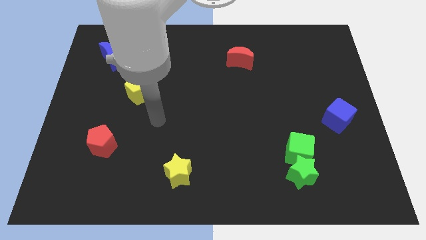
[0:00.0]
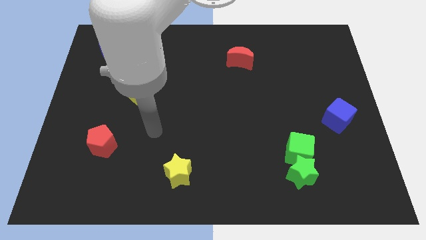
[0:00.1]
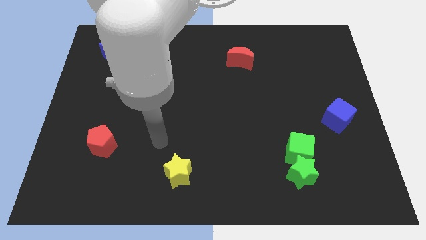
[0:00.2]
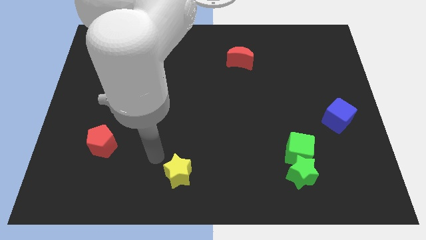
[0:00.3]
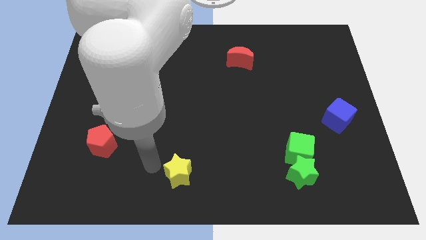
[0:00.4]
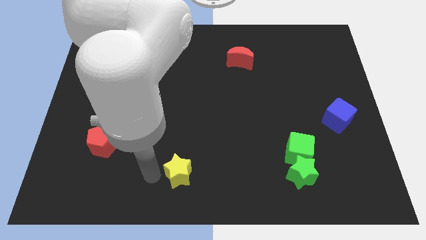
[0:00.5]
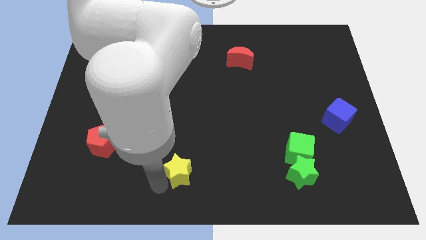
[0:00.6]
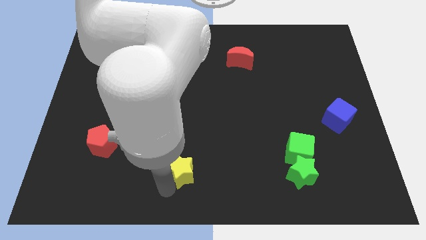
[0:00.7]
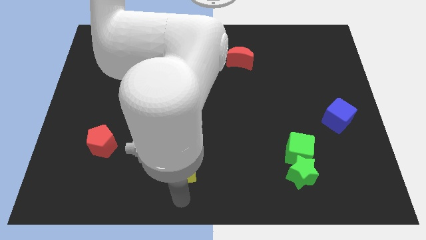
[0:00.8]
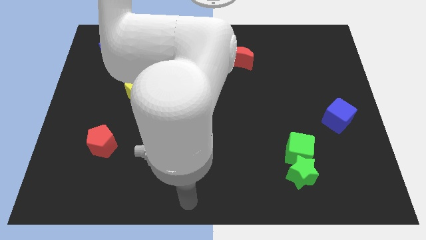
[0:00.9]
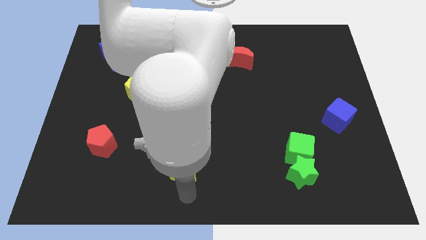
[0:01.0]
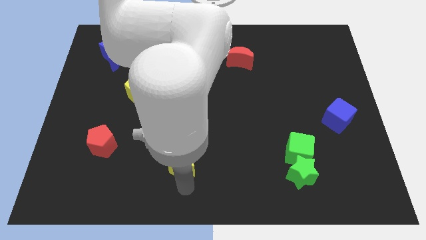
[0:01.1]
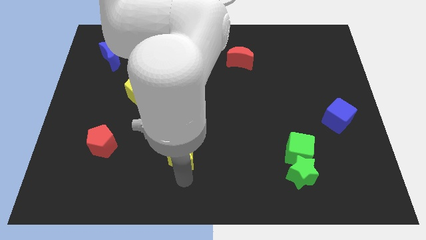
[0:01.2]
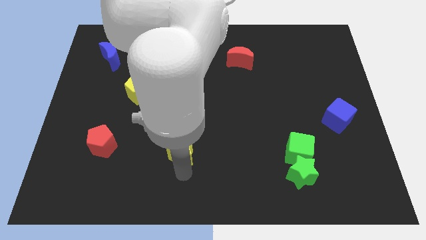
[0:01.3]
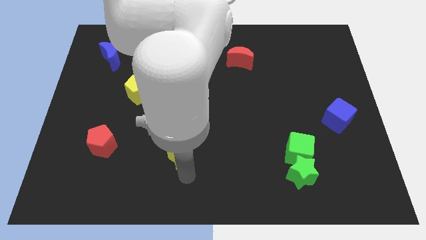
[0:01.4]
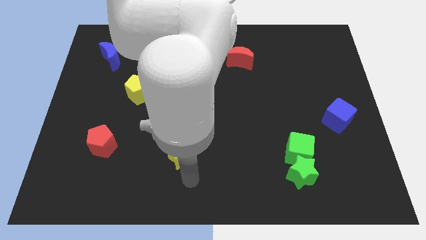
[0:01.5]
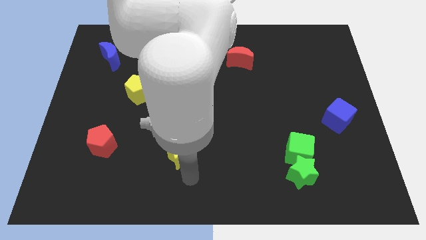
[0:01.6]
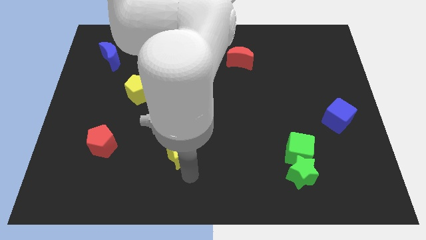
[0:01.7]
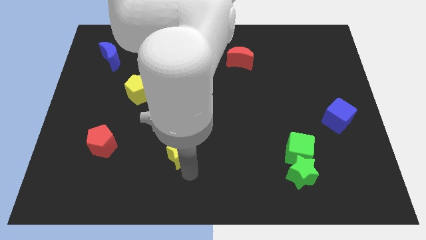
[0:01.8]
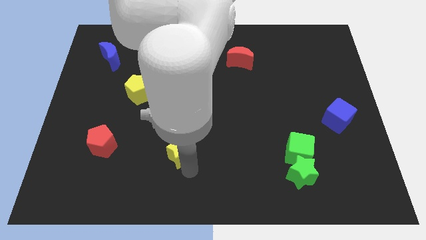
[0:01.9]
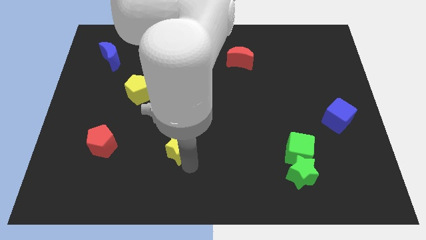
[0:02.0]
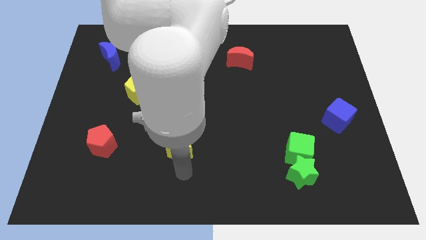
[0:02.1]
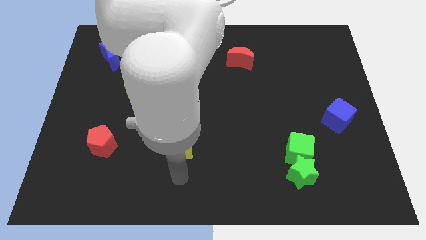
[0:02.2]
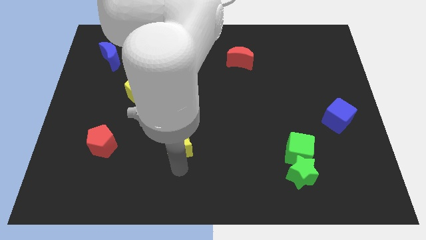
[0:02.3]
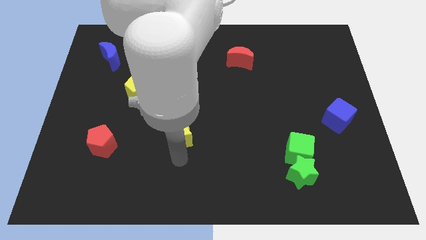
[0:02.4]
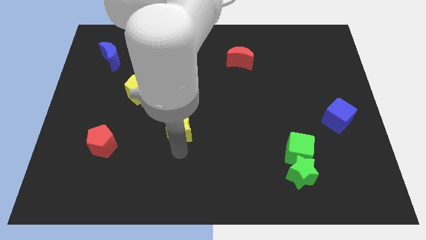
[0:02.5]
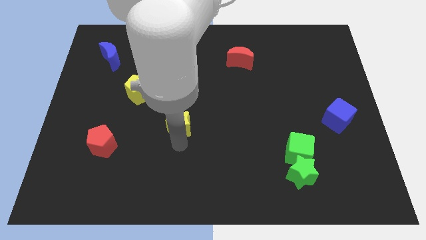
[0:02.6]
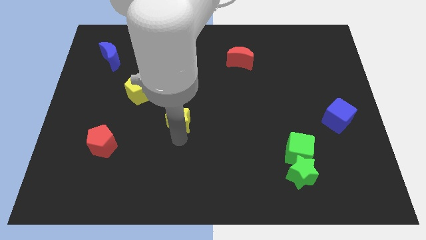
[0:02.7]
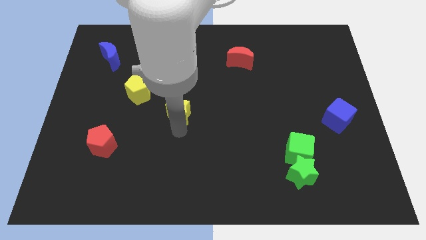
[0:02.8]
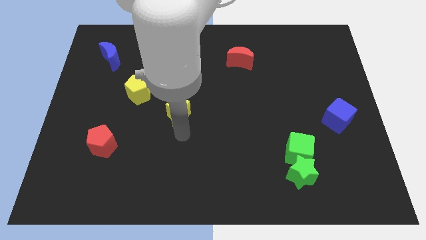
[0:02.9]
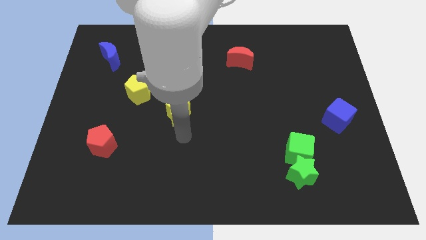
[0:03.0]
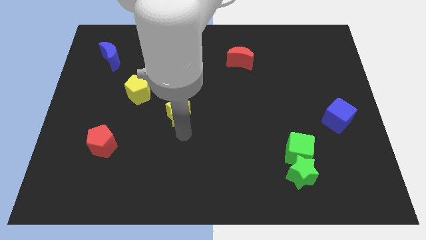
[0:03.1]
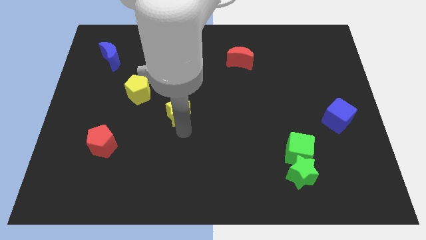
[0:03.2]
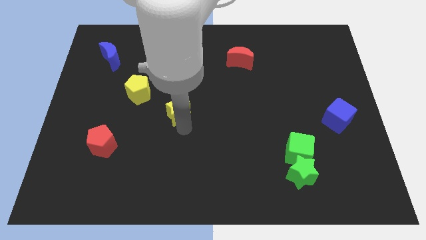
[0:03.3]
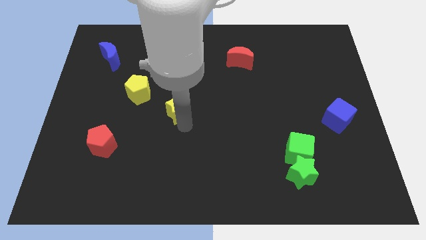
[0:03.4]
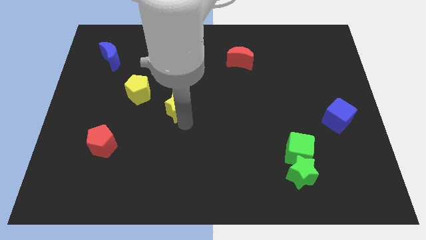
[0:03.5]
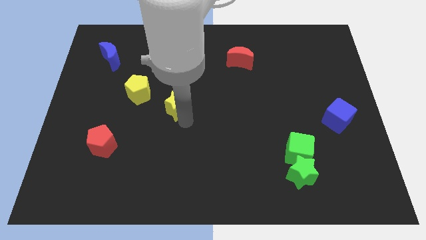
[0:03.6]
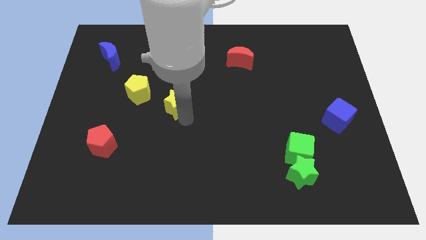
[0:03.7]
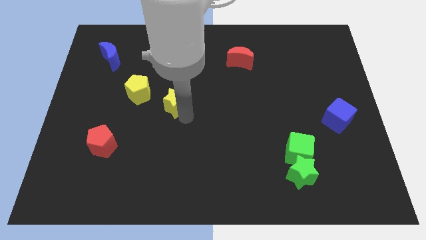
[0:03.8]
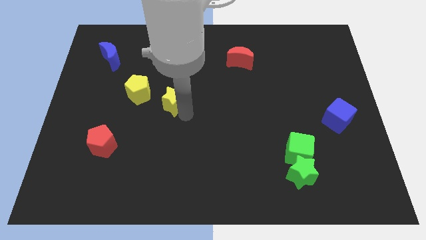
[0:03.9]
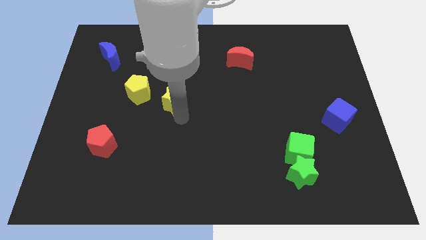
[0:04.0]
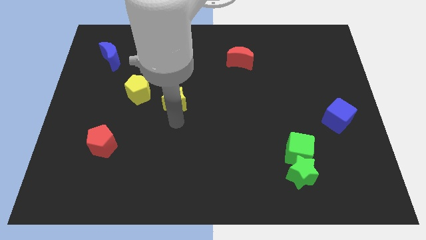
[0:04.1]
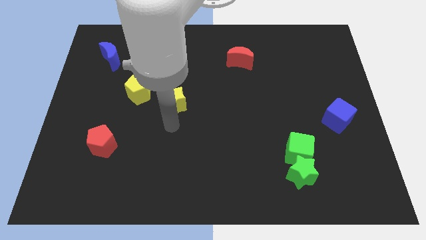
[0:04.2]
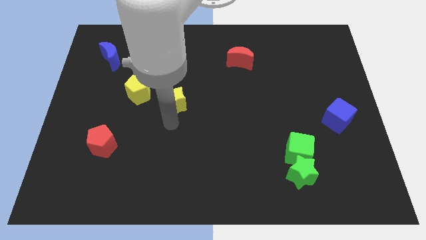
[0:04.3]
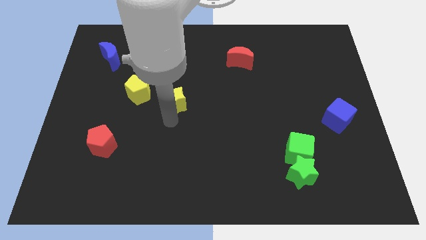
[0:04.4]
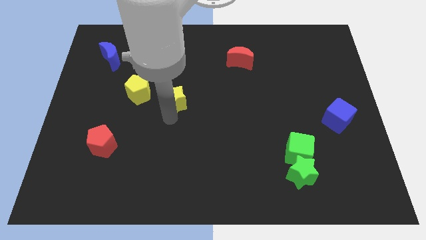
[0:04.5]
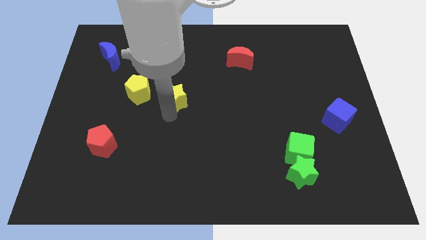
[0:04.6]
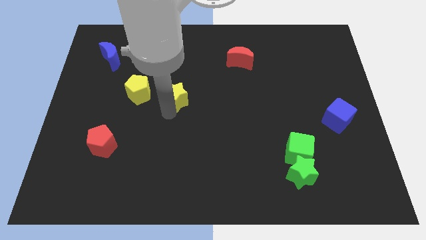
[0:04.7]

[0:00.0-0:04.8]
move the yellow star up

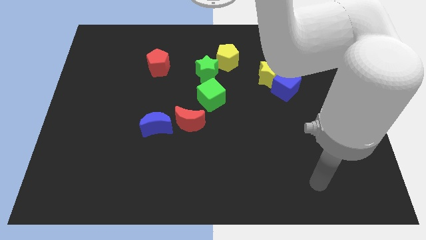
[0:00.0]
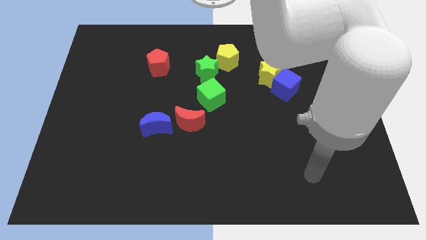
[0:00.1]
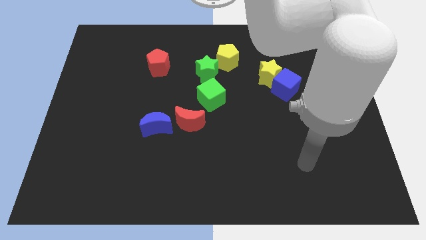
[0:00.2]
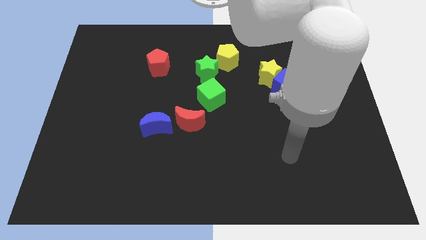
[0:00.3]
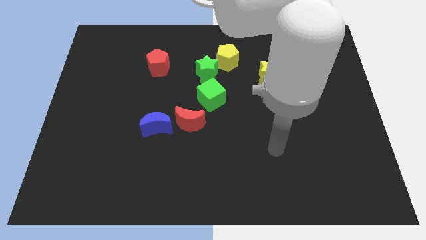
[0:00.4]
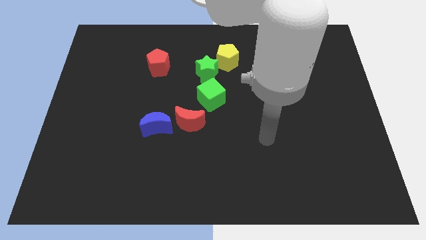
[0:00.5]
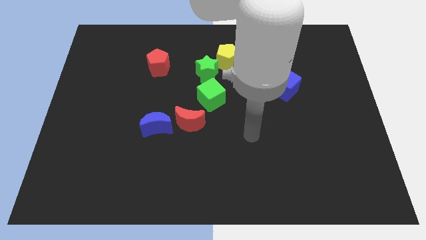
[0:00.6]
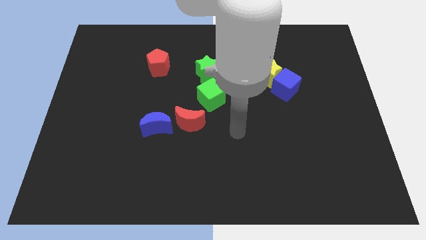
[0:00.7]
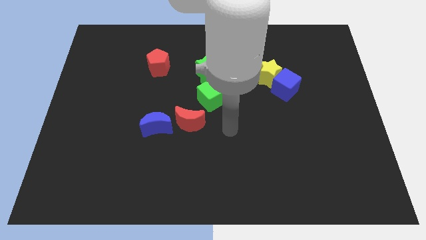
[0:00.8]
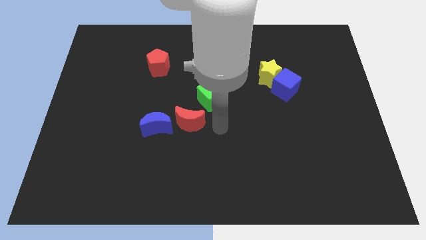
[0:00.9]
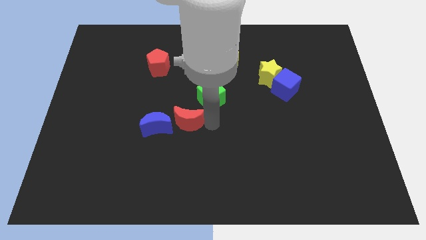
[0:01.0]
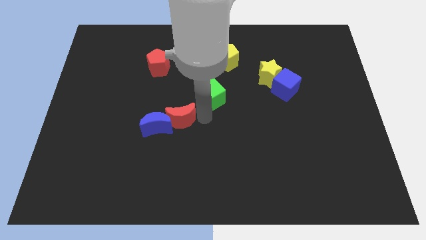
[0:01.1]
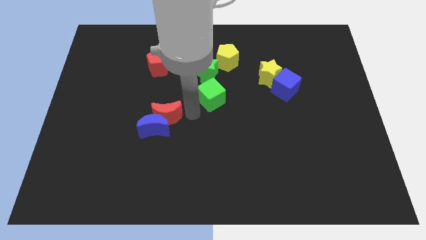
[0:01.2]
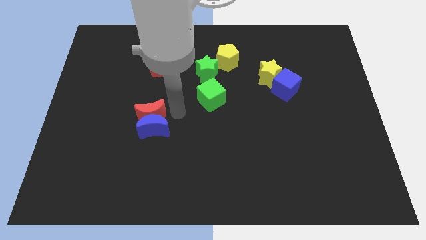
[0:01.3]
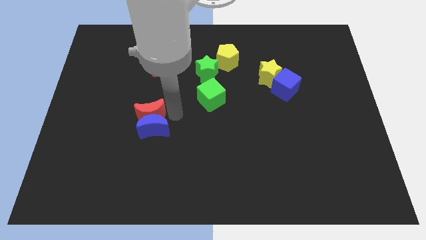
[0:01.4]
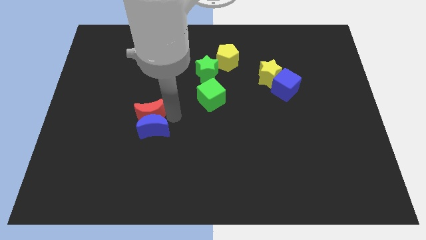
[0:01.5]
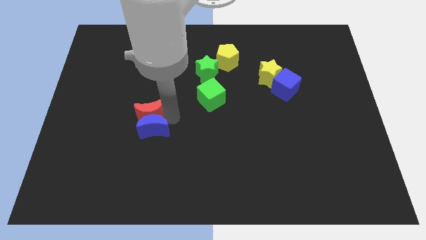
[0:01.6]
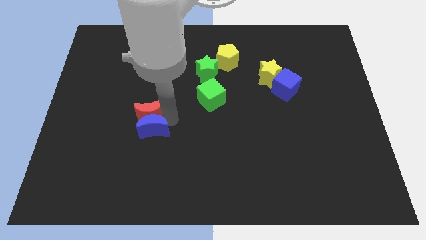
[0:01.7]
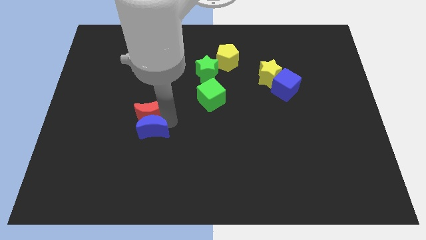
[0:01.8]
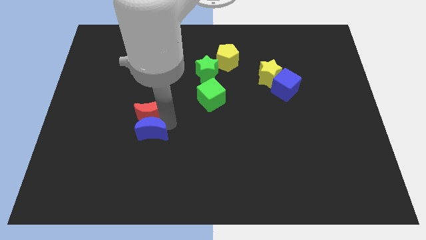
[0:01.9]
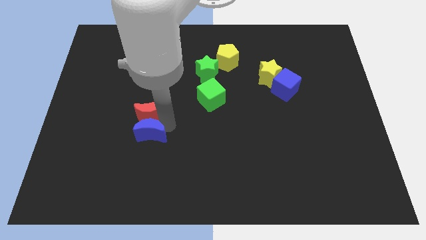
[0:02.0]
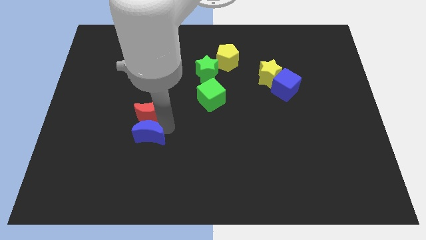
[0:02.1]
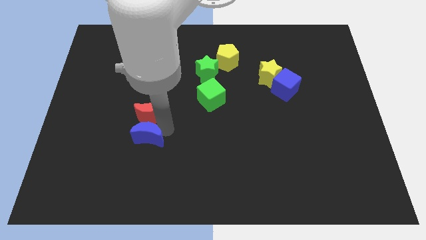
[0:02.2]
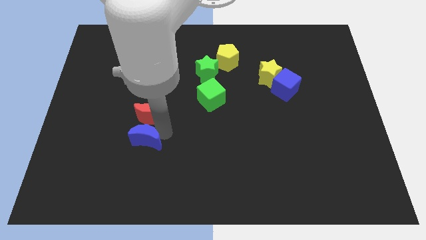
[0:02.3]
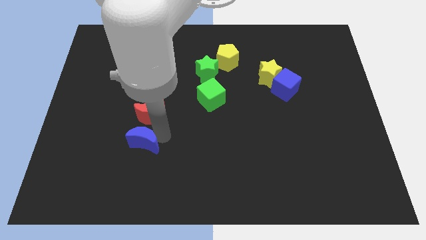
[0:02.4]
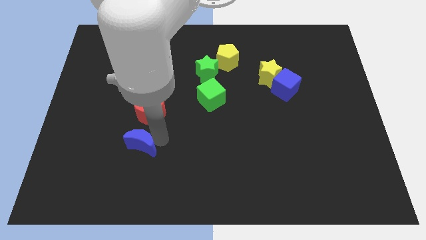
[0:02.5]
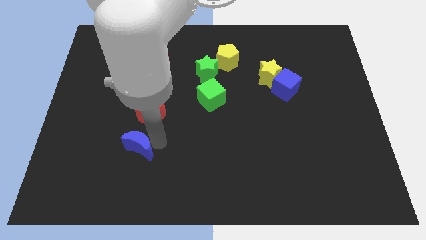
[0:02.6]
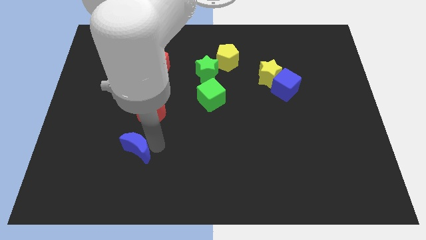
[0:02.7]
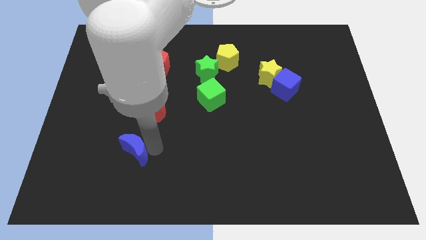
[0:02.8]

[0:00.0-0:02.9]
slightly push the blue moon downwards and left diagonally
